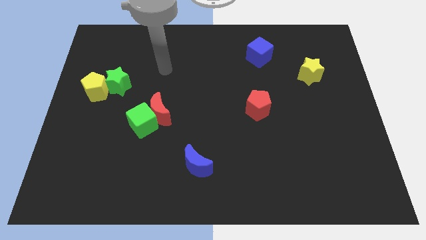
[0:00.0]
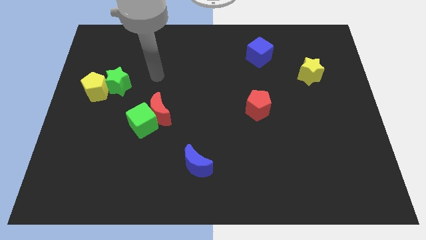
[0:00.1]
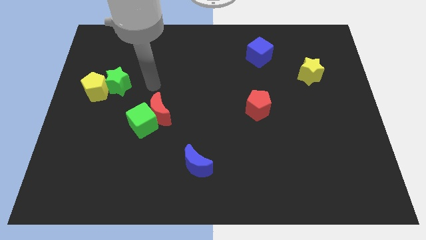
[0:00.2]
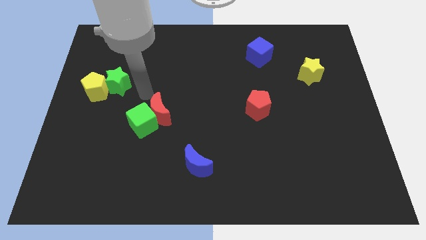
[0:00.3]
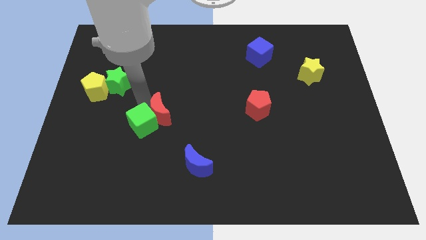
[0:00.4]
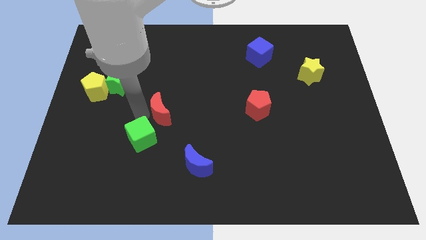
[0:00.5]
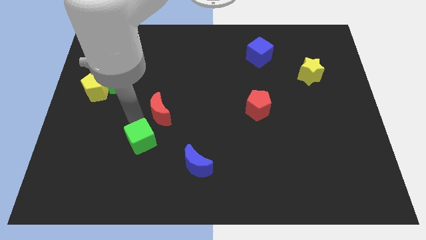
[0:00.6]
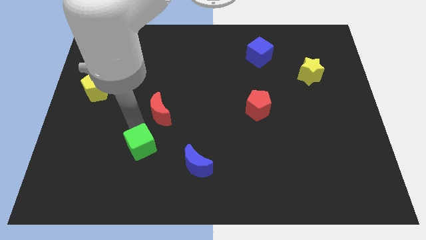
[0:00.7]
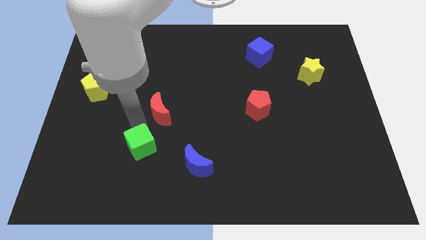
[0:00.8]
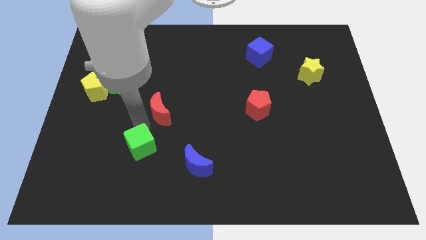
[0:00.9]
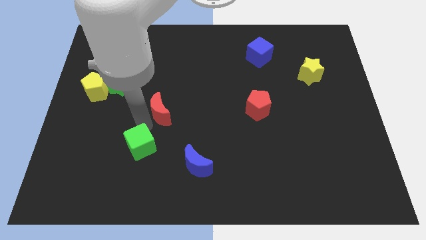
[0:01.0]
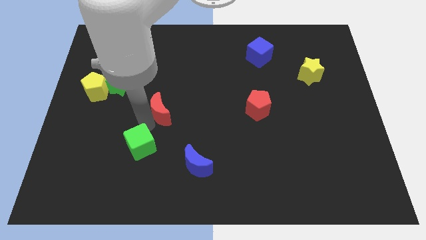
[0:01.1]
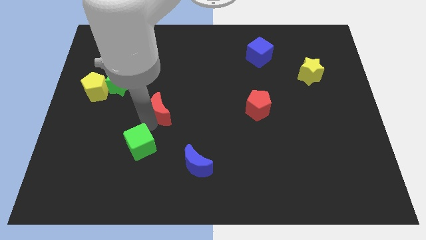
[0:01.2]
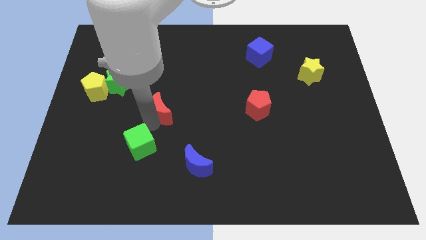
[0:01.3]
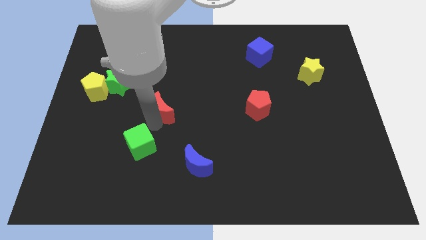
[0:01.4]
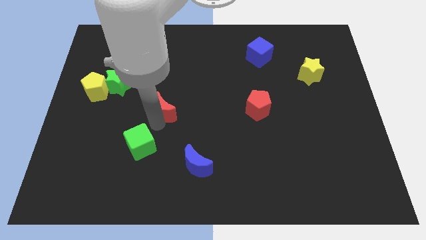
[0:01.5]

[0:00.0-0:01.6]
move the red moon away from the green cube

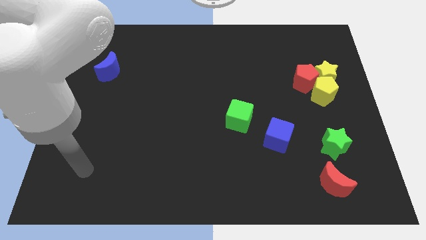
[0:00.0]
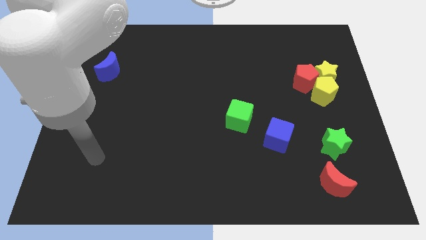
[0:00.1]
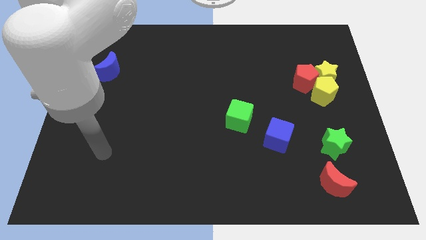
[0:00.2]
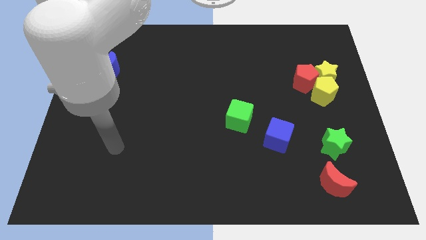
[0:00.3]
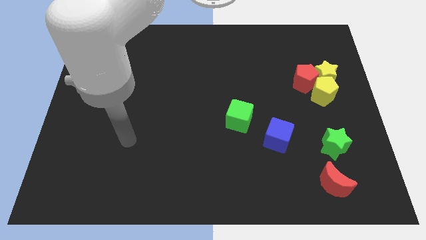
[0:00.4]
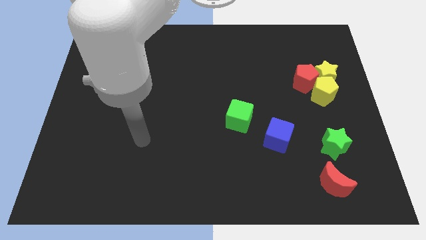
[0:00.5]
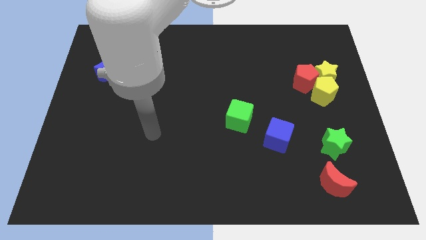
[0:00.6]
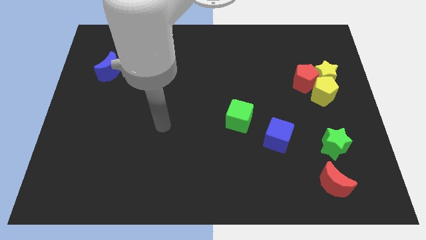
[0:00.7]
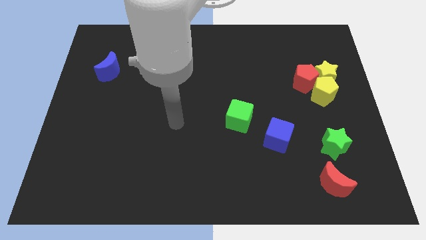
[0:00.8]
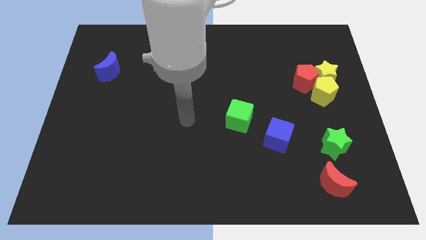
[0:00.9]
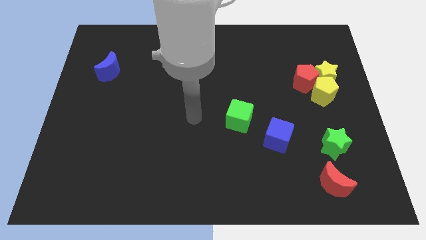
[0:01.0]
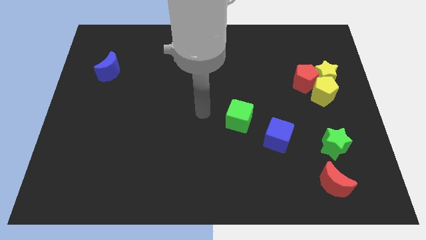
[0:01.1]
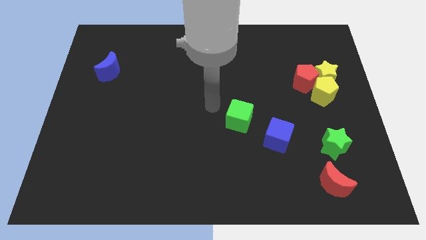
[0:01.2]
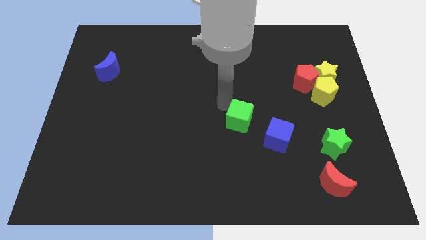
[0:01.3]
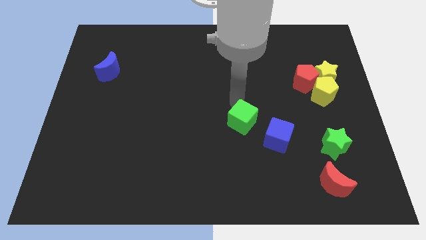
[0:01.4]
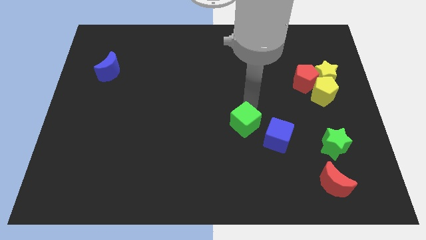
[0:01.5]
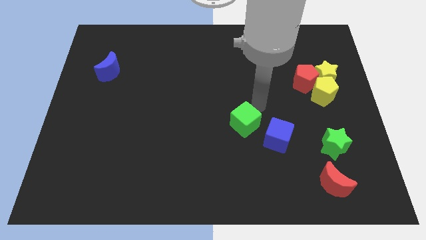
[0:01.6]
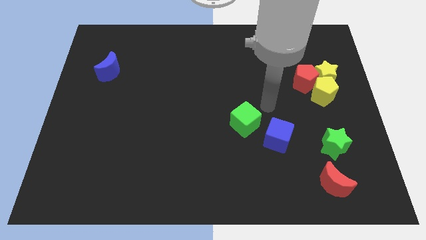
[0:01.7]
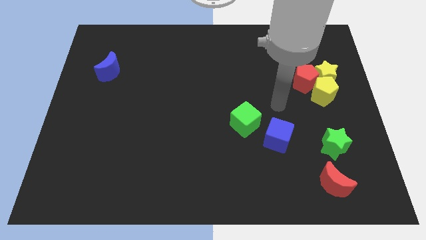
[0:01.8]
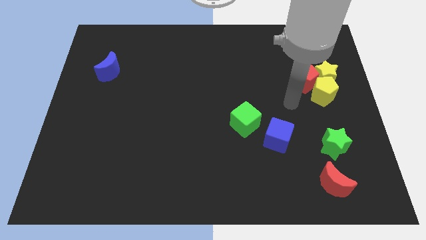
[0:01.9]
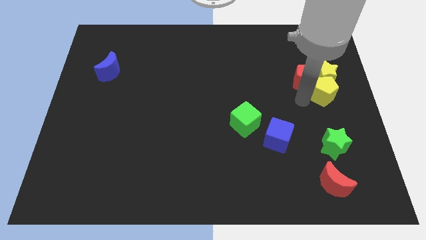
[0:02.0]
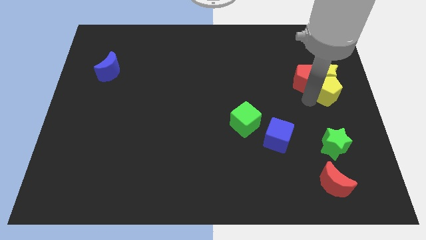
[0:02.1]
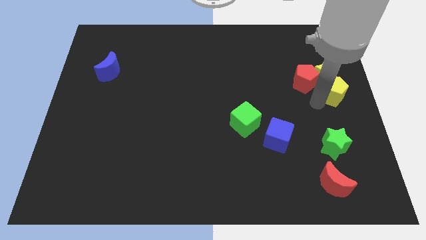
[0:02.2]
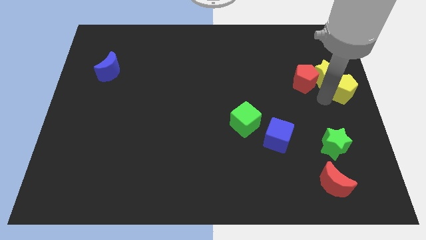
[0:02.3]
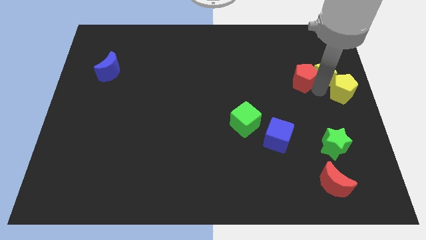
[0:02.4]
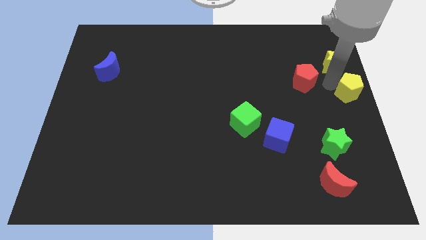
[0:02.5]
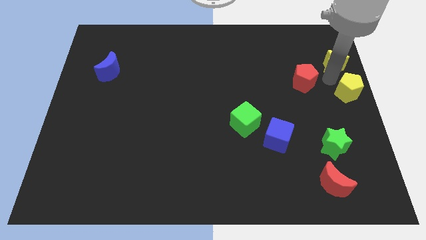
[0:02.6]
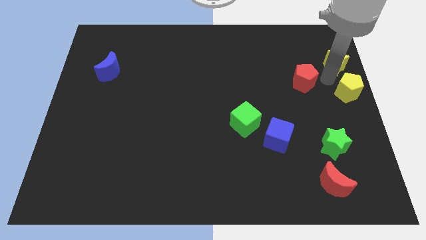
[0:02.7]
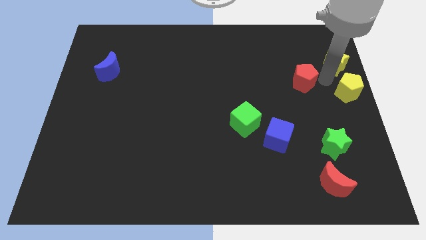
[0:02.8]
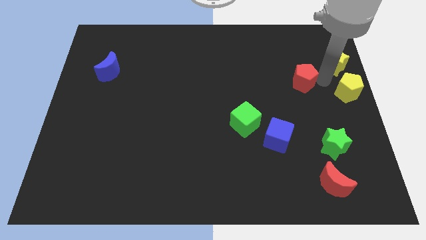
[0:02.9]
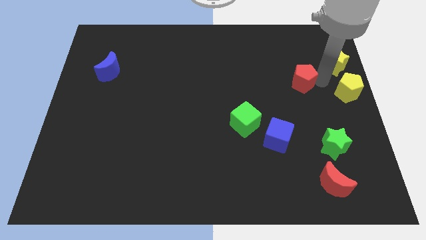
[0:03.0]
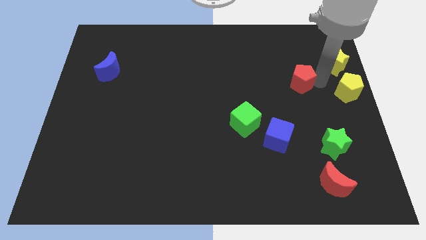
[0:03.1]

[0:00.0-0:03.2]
pull the red pentagon apart from the yellow star and yellow pentagon

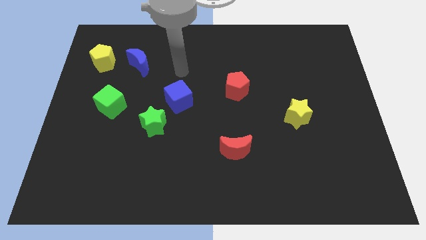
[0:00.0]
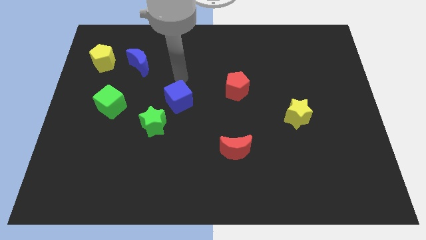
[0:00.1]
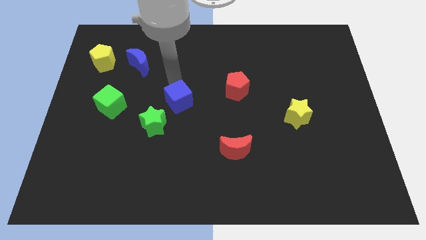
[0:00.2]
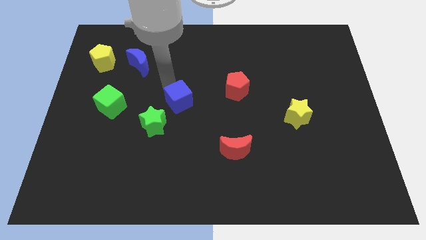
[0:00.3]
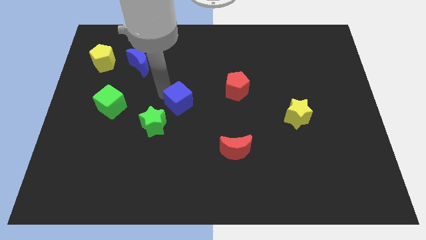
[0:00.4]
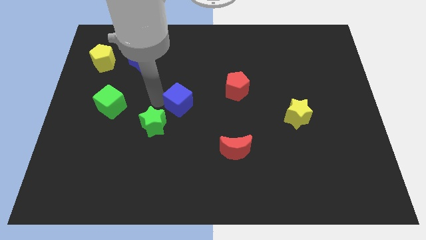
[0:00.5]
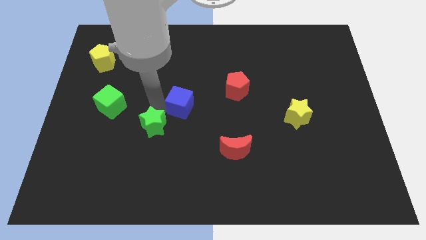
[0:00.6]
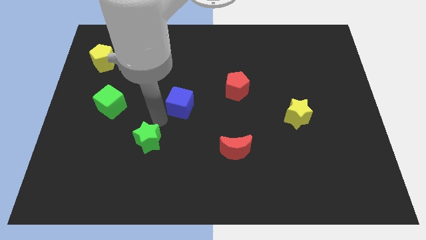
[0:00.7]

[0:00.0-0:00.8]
move the blue cube away from the green star

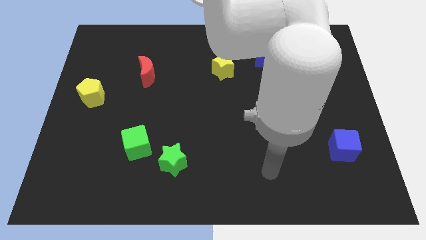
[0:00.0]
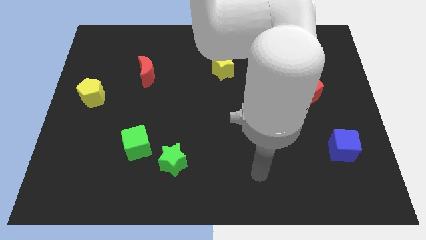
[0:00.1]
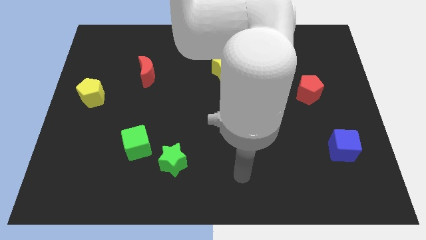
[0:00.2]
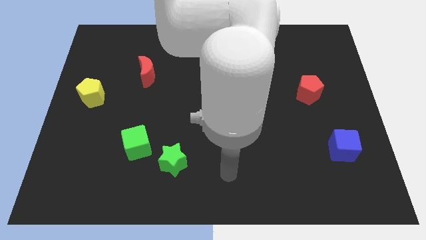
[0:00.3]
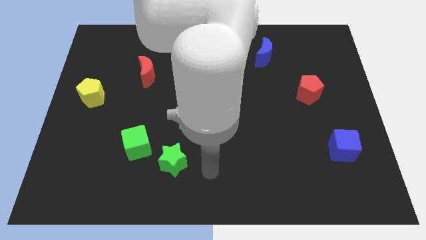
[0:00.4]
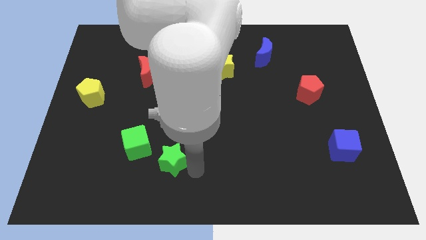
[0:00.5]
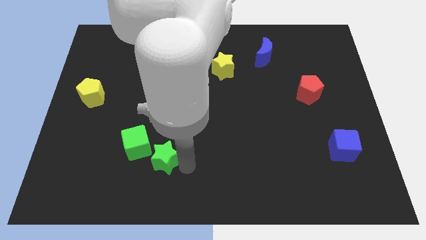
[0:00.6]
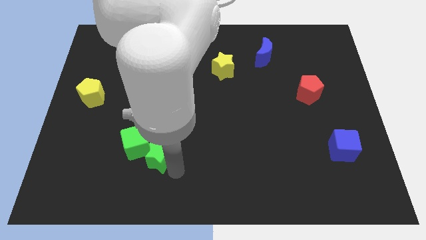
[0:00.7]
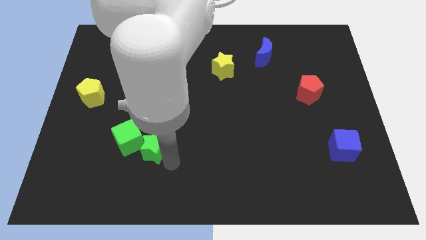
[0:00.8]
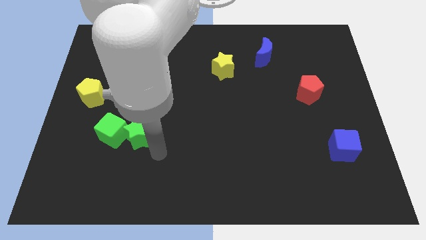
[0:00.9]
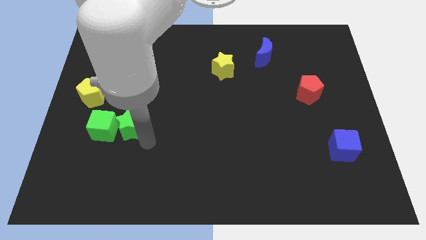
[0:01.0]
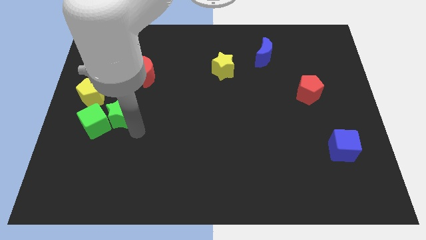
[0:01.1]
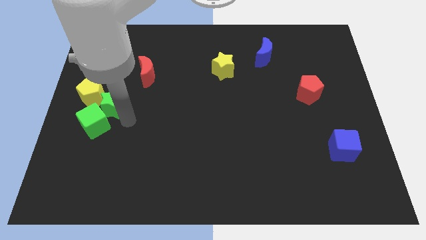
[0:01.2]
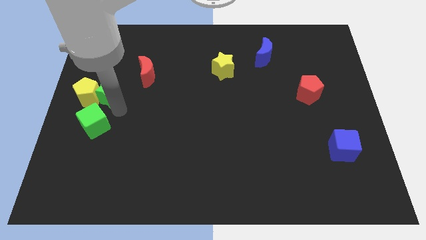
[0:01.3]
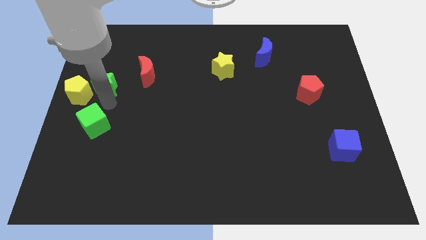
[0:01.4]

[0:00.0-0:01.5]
pull the green cube apart from the green star

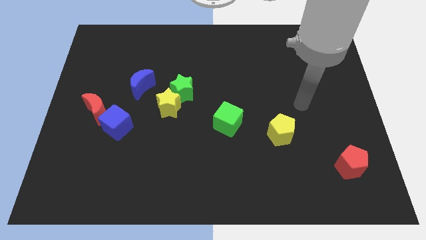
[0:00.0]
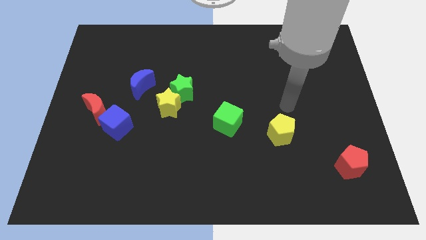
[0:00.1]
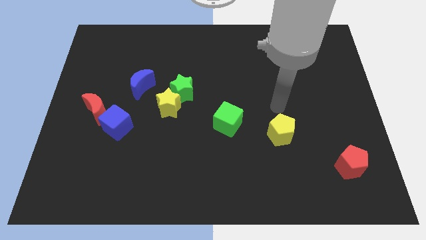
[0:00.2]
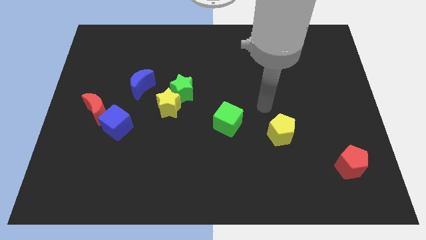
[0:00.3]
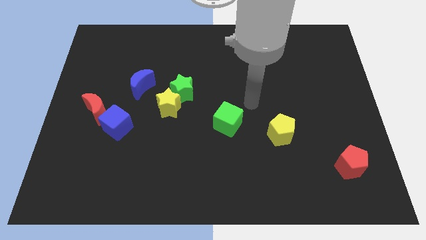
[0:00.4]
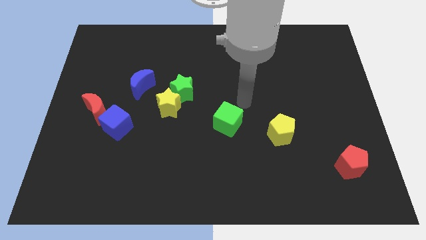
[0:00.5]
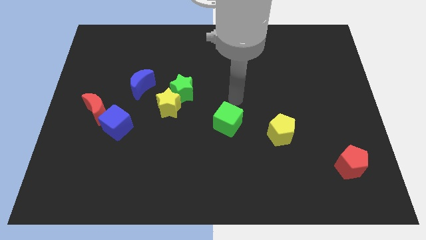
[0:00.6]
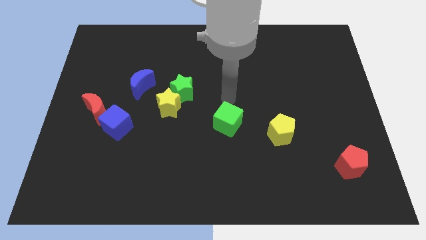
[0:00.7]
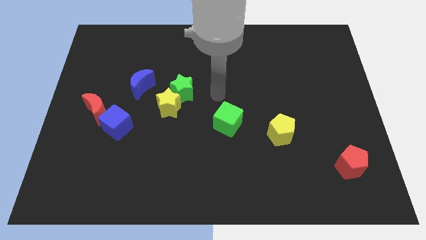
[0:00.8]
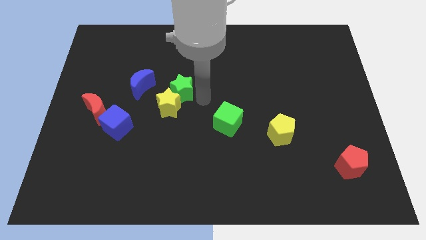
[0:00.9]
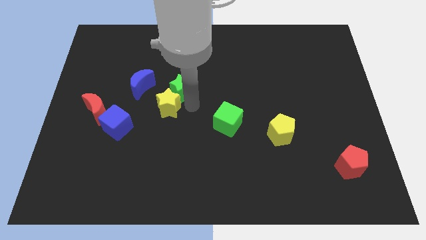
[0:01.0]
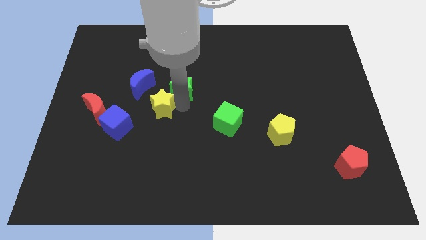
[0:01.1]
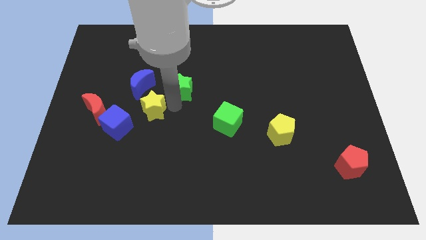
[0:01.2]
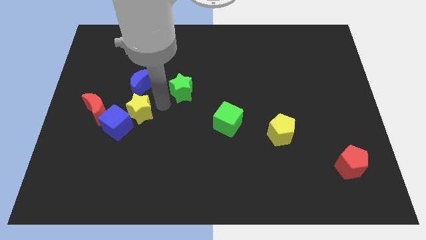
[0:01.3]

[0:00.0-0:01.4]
separate the green star from the yellow star

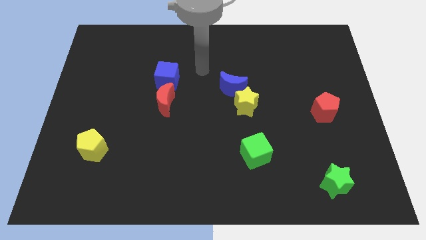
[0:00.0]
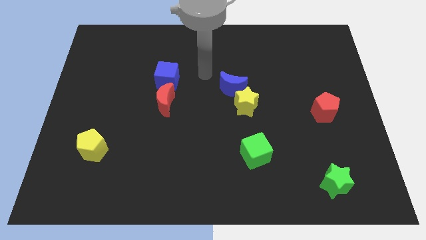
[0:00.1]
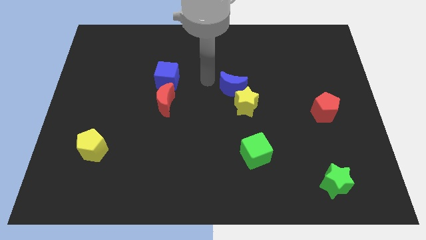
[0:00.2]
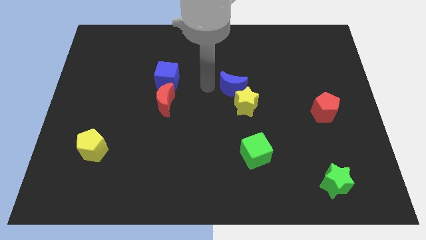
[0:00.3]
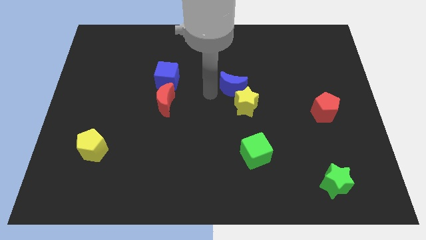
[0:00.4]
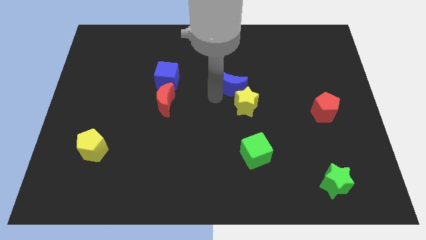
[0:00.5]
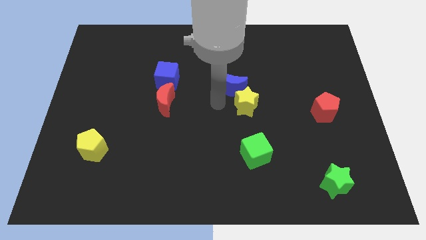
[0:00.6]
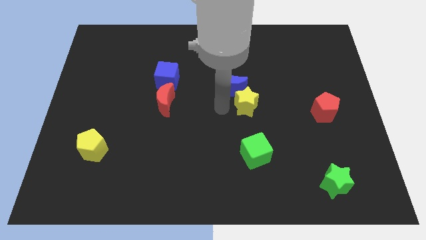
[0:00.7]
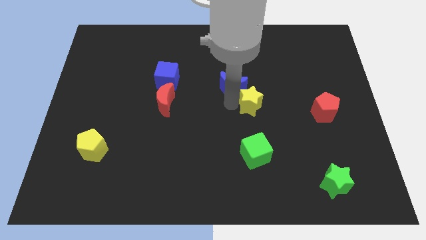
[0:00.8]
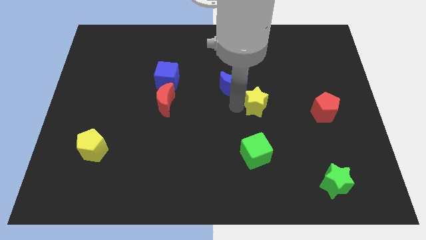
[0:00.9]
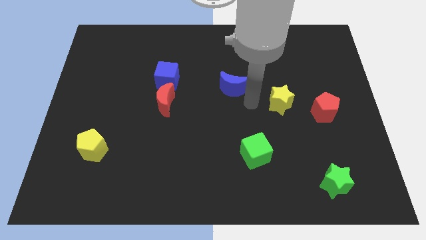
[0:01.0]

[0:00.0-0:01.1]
pull the blue moon apart from the yellow star
